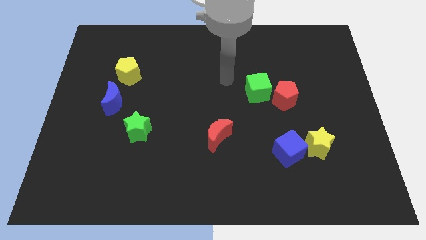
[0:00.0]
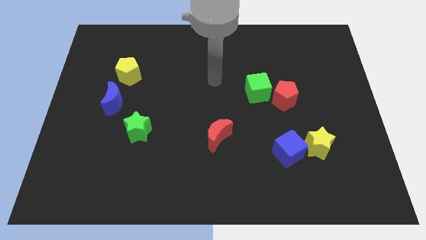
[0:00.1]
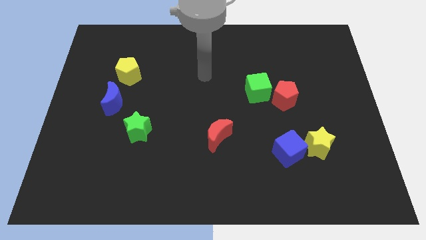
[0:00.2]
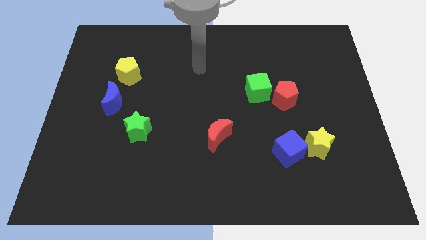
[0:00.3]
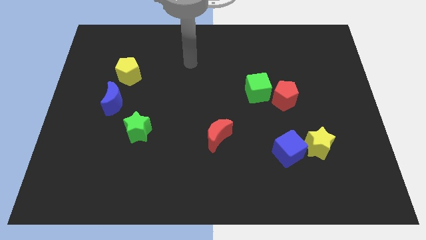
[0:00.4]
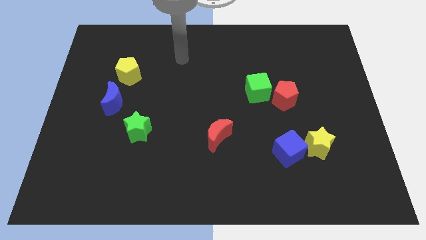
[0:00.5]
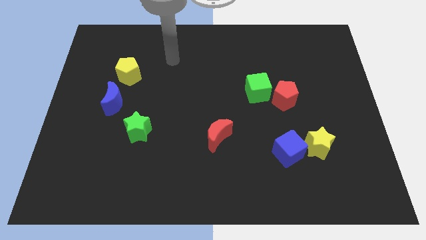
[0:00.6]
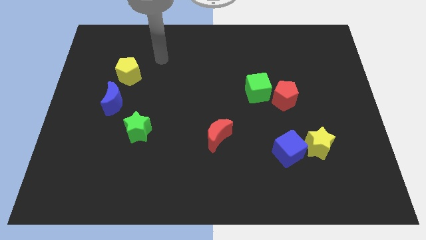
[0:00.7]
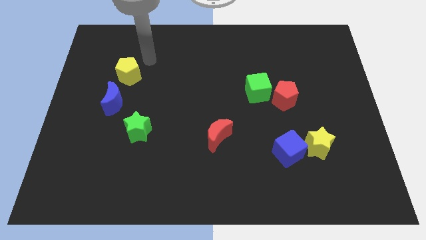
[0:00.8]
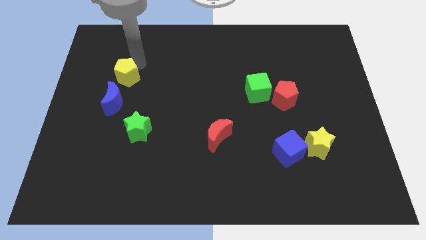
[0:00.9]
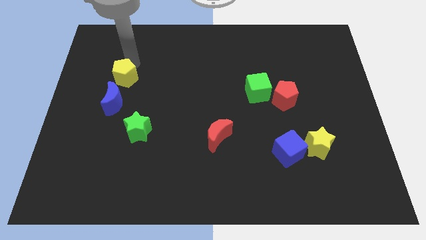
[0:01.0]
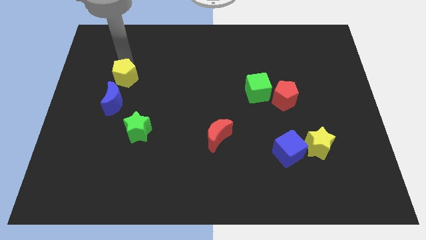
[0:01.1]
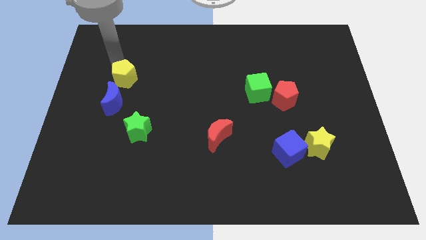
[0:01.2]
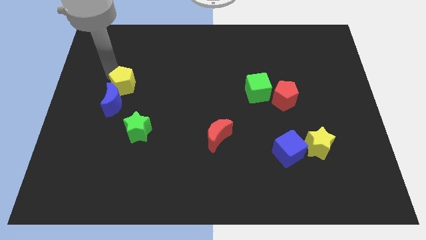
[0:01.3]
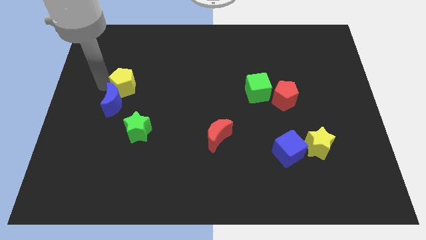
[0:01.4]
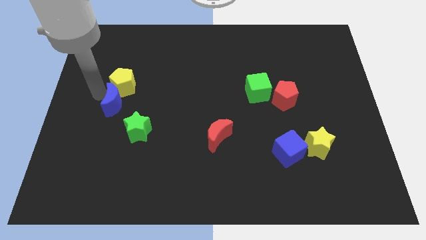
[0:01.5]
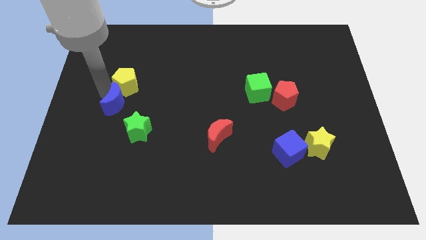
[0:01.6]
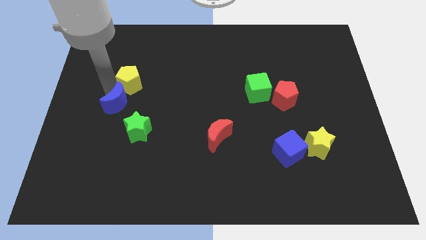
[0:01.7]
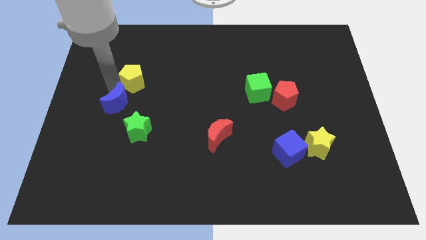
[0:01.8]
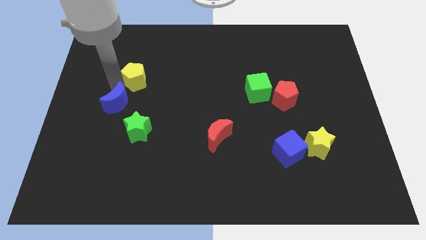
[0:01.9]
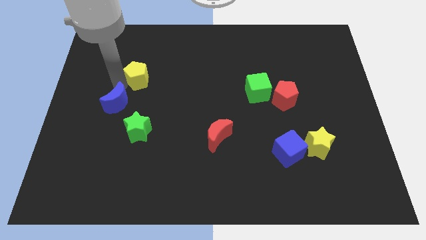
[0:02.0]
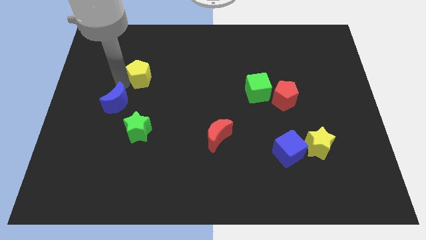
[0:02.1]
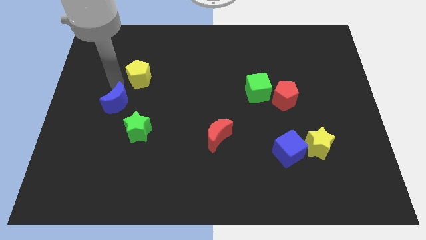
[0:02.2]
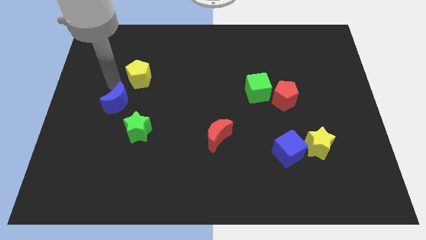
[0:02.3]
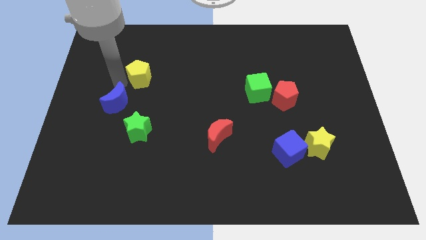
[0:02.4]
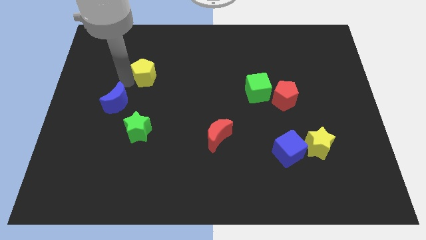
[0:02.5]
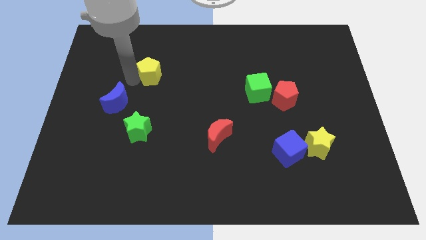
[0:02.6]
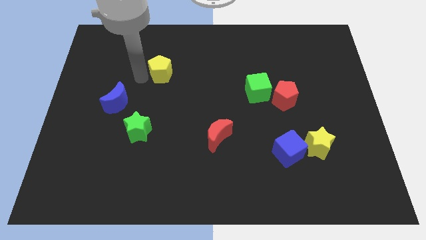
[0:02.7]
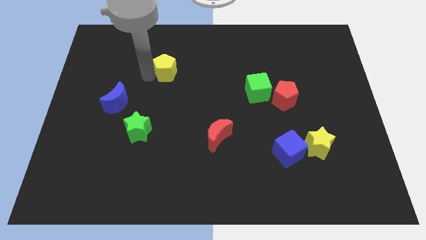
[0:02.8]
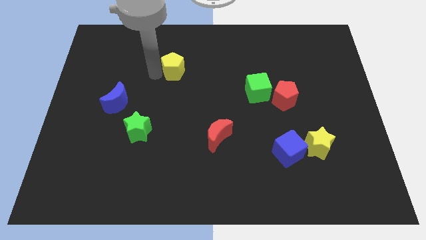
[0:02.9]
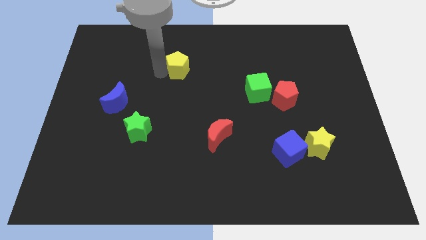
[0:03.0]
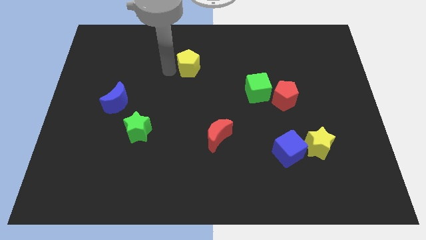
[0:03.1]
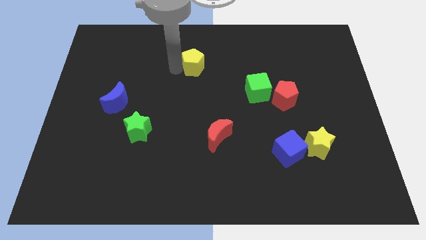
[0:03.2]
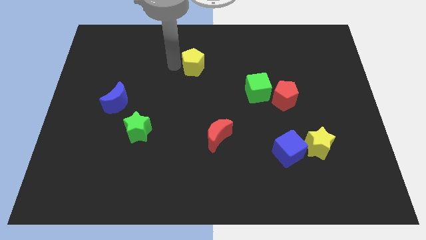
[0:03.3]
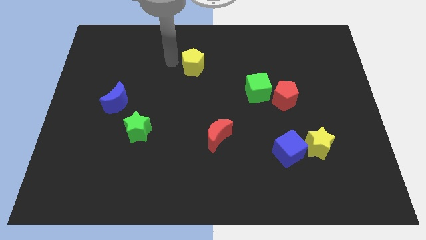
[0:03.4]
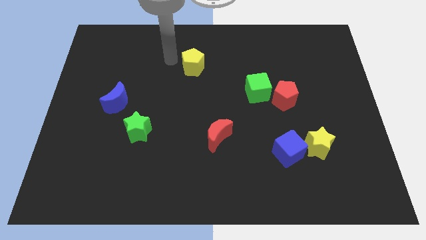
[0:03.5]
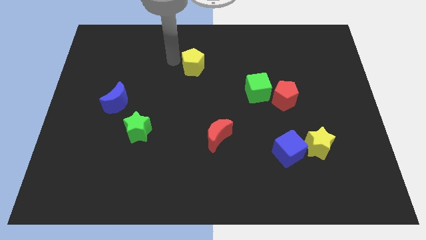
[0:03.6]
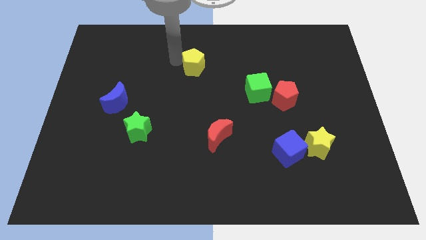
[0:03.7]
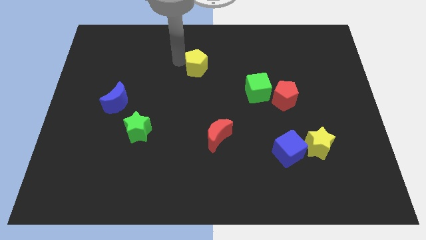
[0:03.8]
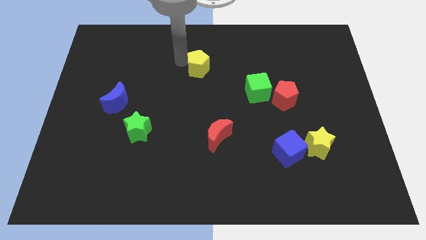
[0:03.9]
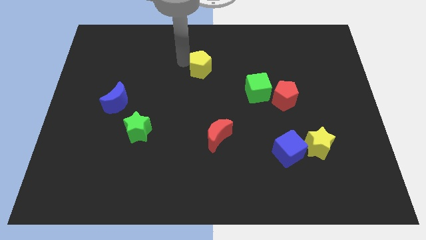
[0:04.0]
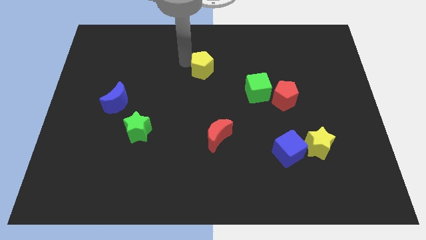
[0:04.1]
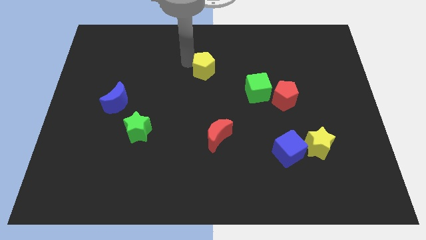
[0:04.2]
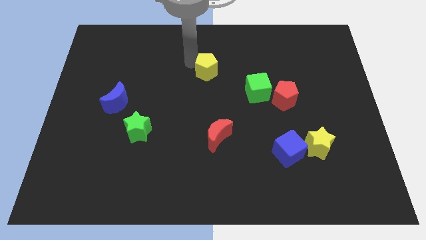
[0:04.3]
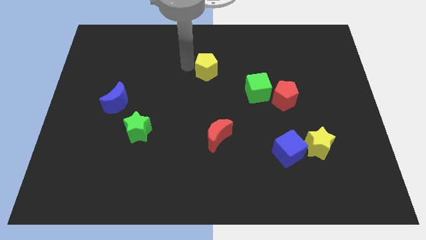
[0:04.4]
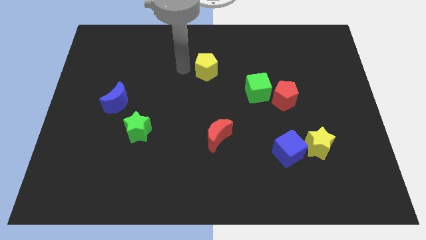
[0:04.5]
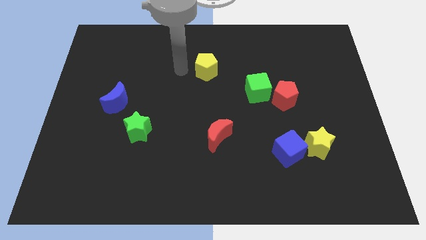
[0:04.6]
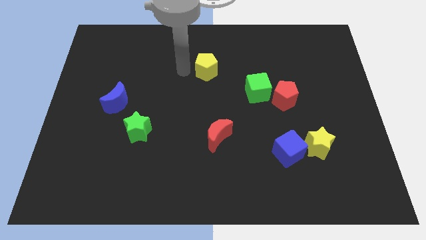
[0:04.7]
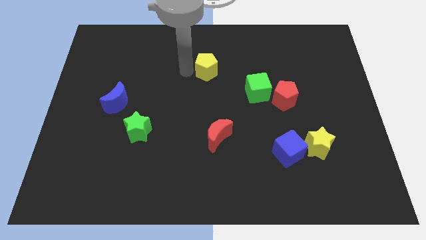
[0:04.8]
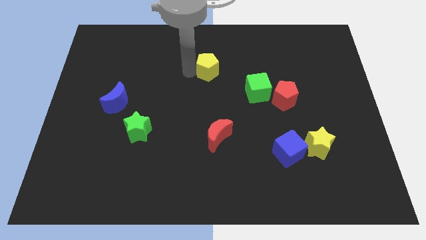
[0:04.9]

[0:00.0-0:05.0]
slide the yellow pentagon to the right

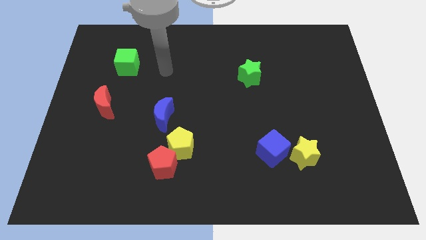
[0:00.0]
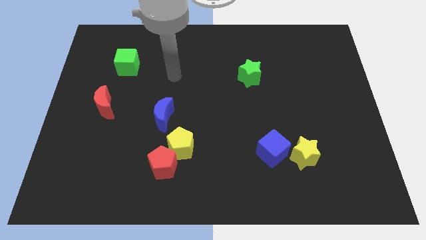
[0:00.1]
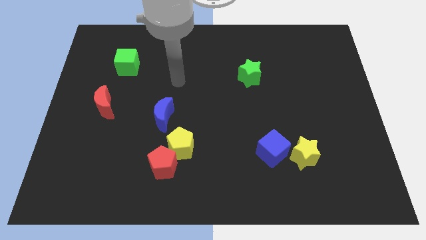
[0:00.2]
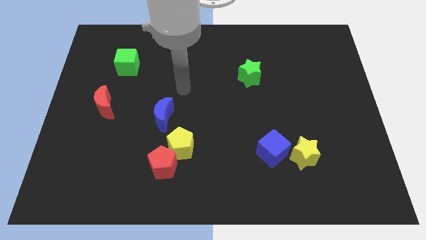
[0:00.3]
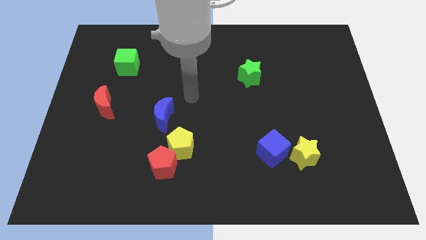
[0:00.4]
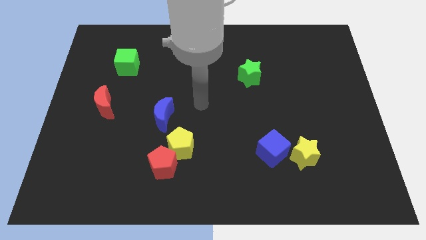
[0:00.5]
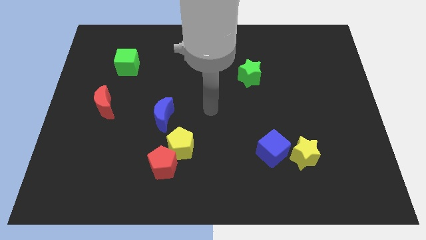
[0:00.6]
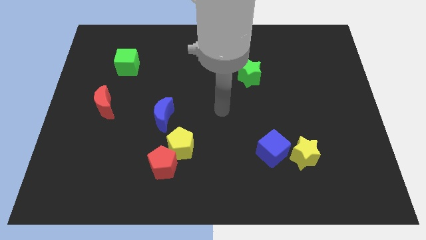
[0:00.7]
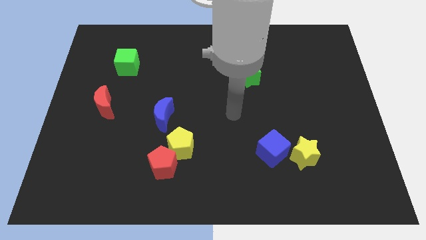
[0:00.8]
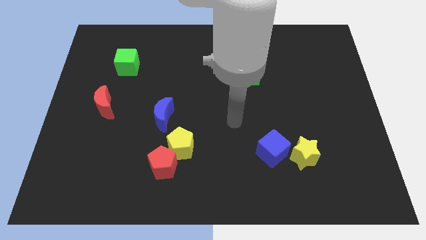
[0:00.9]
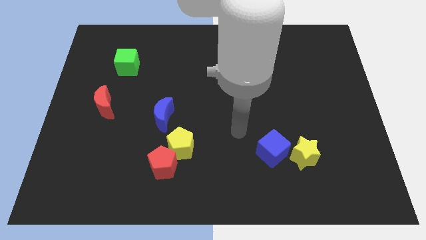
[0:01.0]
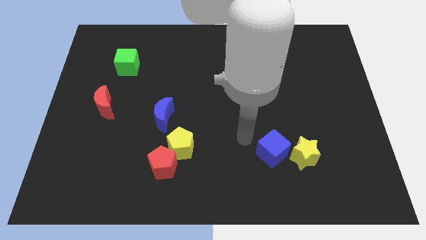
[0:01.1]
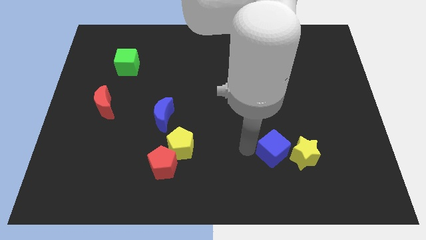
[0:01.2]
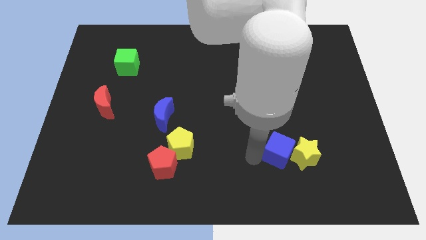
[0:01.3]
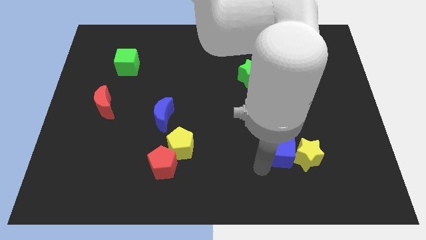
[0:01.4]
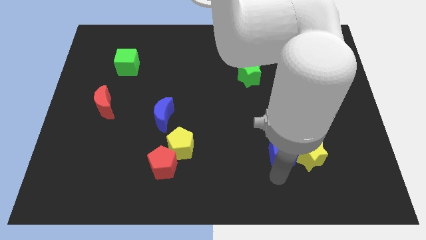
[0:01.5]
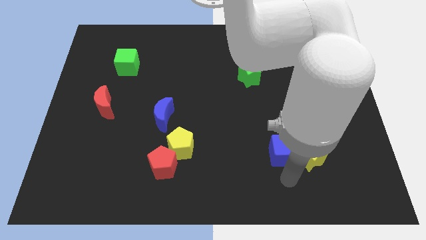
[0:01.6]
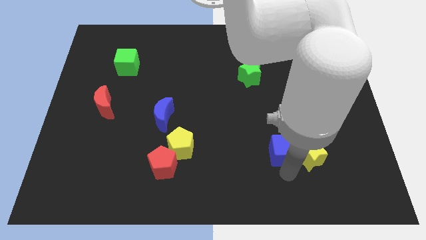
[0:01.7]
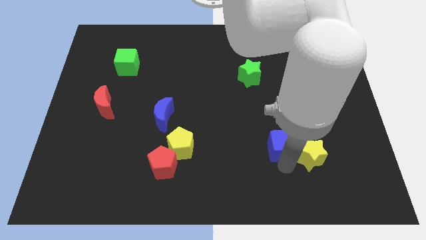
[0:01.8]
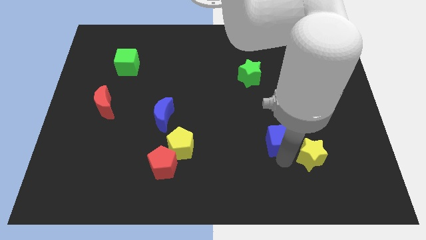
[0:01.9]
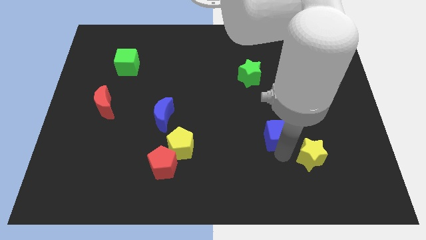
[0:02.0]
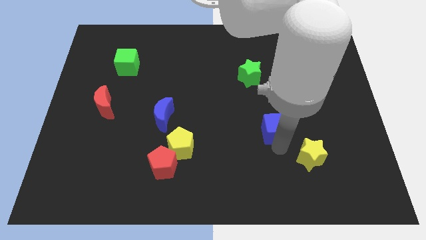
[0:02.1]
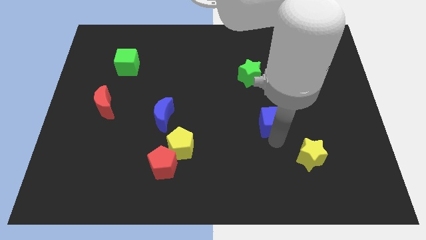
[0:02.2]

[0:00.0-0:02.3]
move the blue cube a little bit upwards

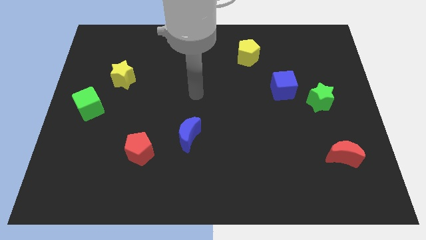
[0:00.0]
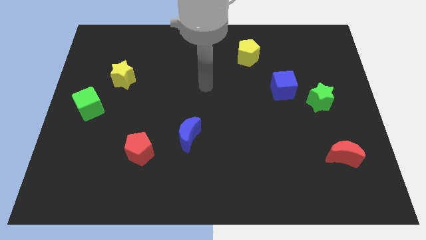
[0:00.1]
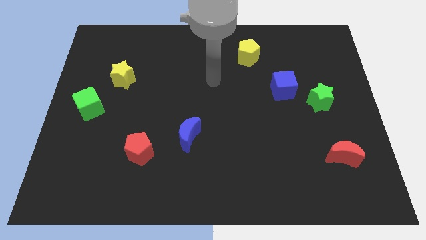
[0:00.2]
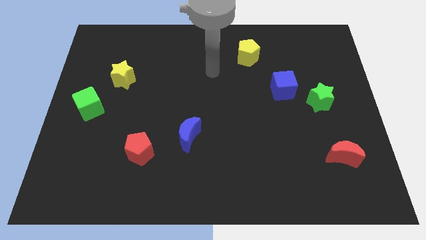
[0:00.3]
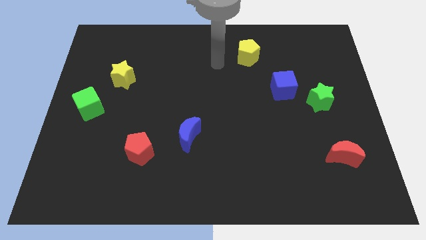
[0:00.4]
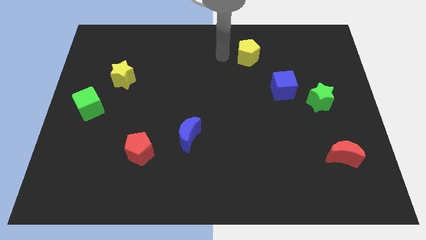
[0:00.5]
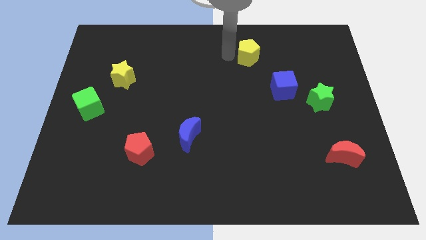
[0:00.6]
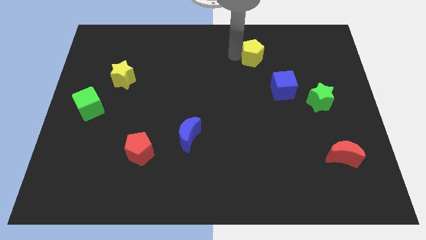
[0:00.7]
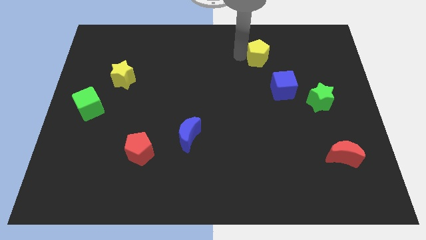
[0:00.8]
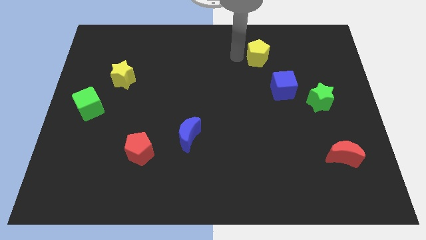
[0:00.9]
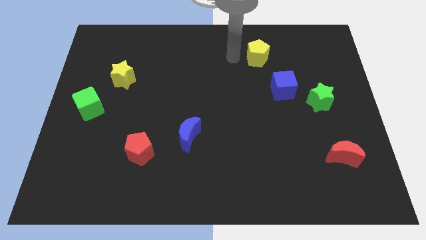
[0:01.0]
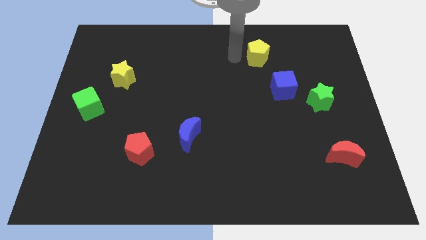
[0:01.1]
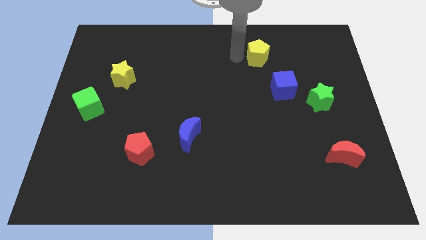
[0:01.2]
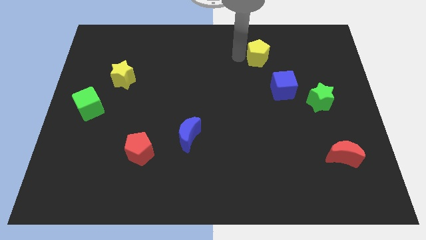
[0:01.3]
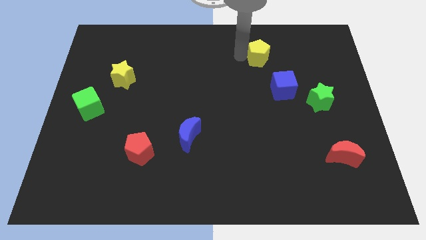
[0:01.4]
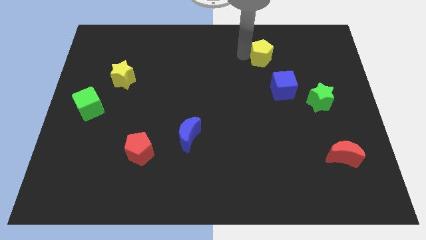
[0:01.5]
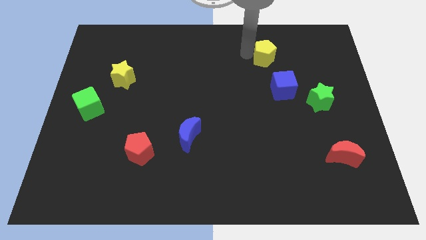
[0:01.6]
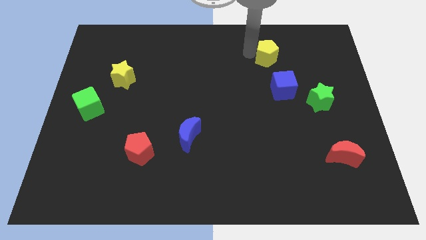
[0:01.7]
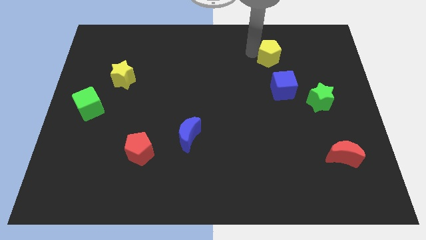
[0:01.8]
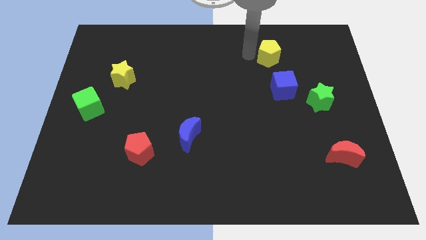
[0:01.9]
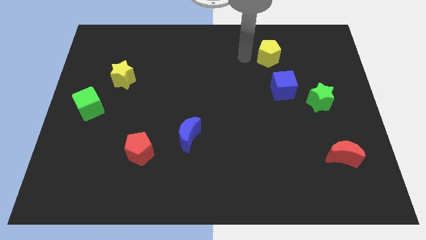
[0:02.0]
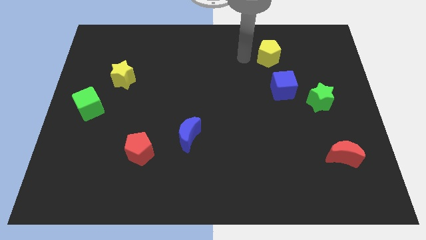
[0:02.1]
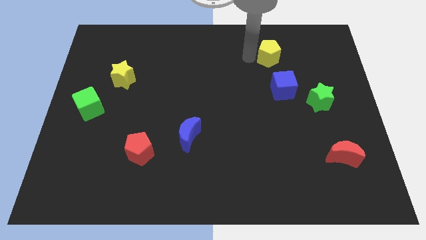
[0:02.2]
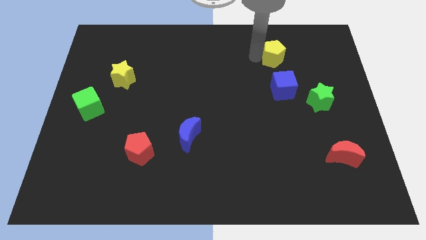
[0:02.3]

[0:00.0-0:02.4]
move the yellow pentagon to the right a little bit
